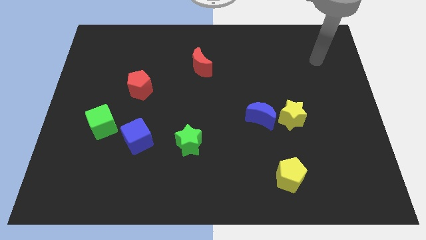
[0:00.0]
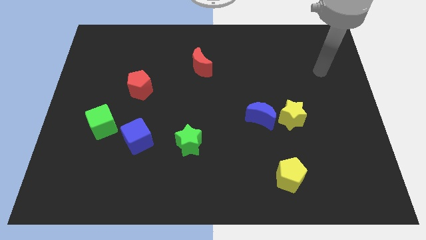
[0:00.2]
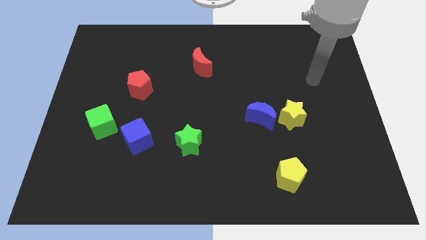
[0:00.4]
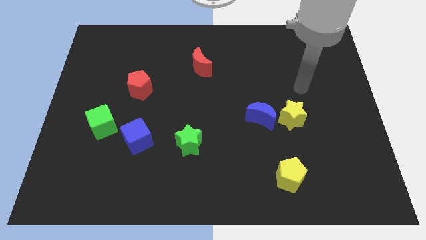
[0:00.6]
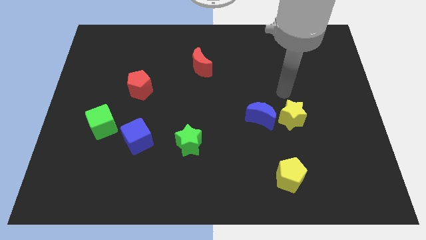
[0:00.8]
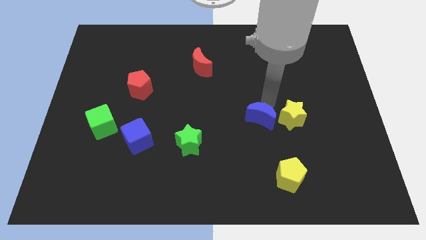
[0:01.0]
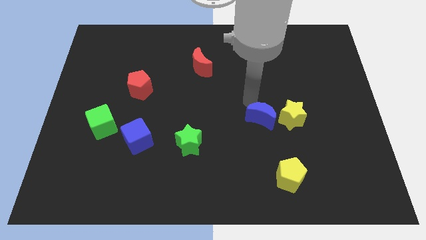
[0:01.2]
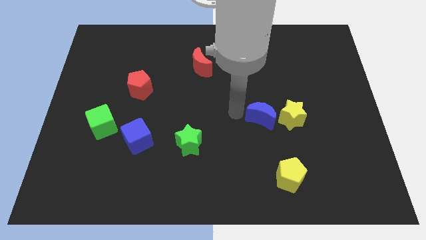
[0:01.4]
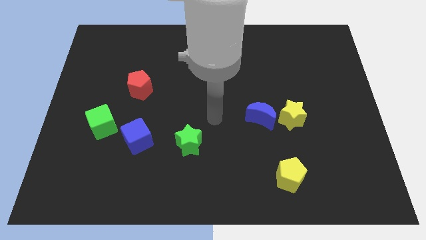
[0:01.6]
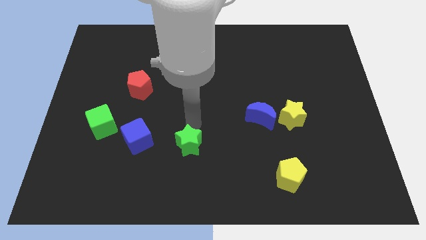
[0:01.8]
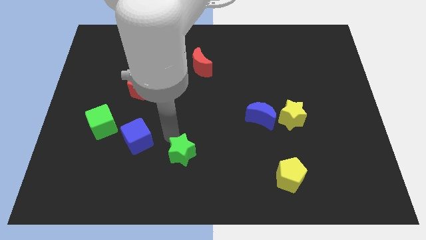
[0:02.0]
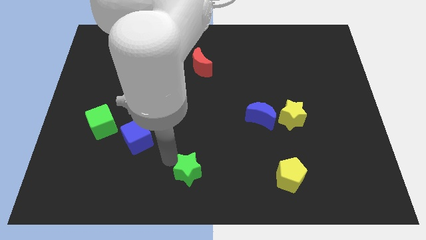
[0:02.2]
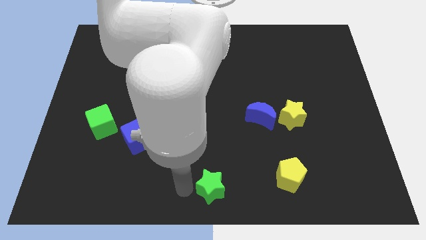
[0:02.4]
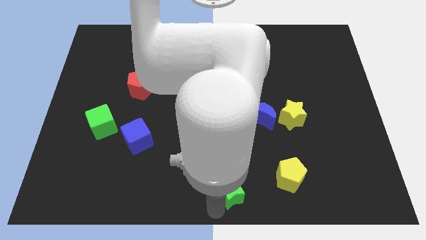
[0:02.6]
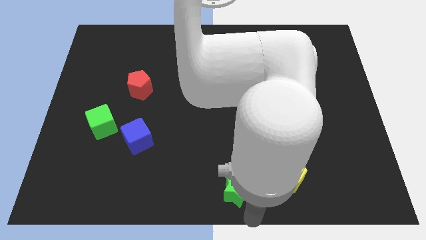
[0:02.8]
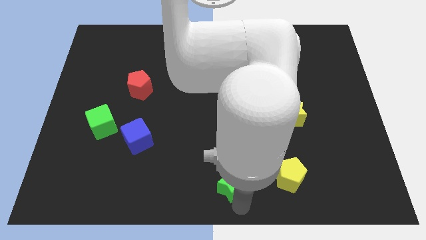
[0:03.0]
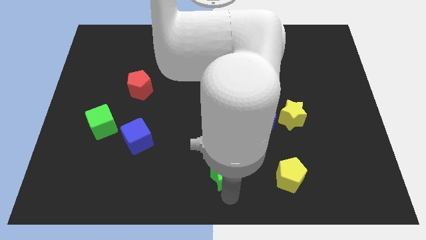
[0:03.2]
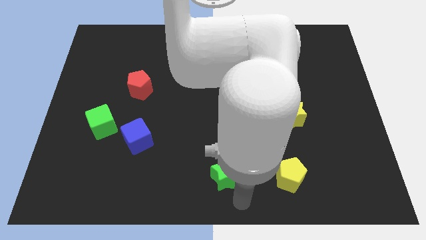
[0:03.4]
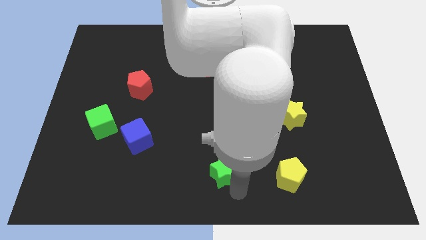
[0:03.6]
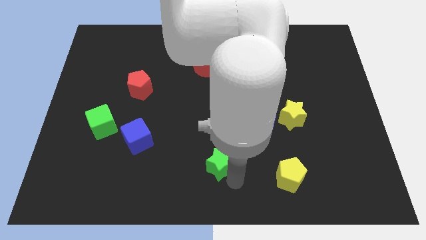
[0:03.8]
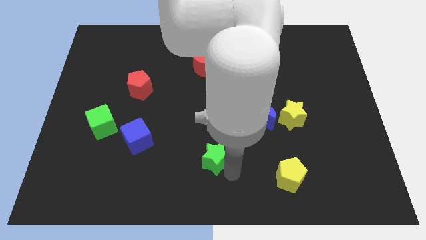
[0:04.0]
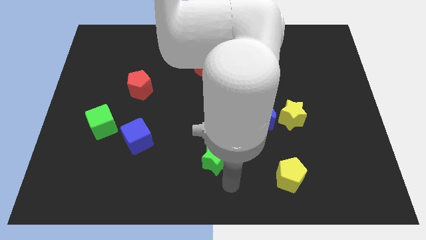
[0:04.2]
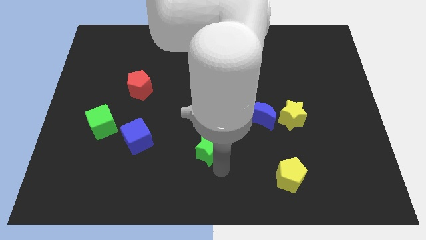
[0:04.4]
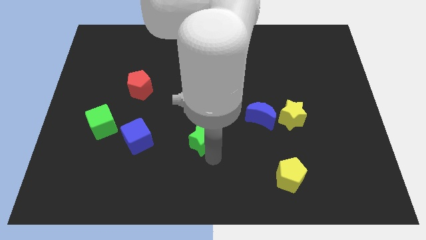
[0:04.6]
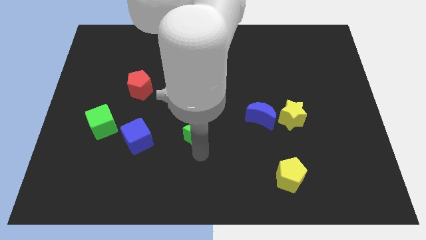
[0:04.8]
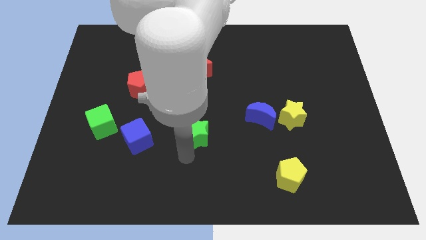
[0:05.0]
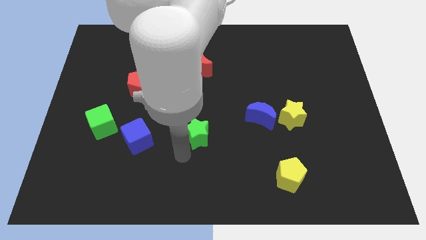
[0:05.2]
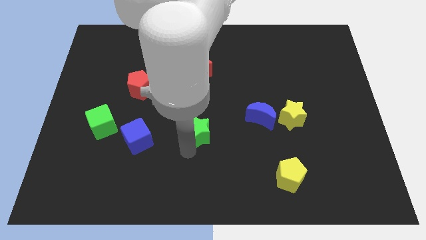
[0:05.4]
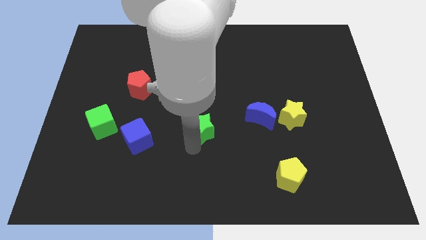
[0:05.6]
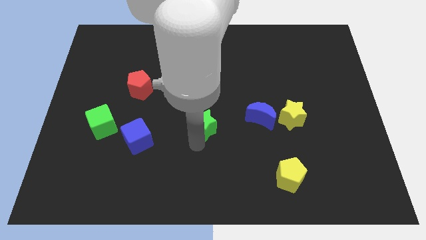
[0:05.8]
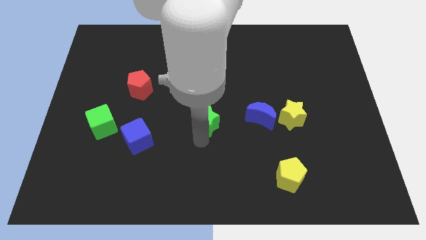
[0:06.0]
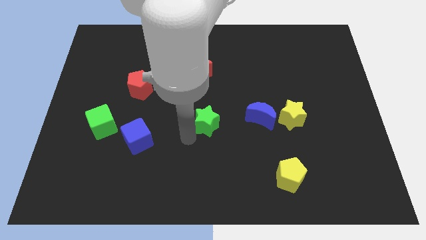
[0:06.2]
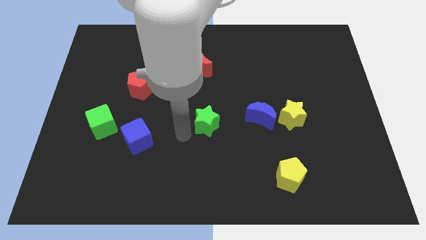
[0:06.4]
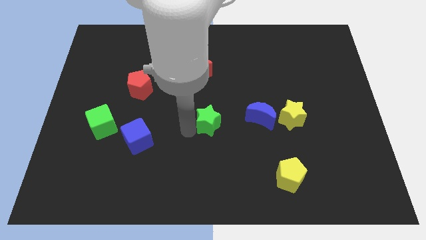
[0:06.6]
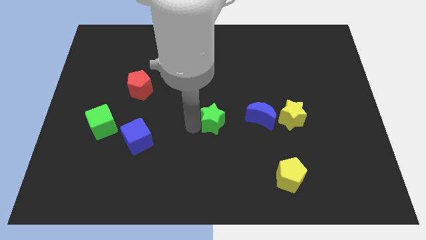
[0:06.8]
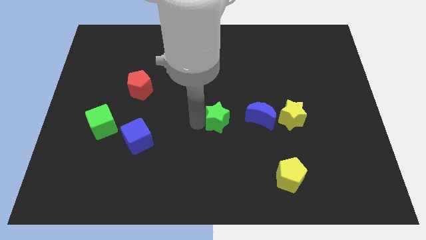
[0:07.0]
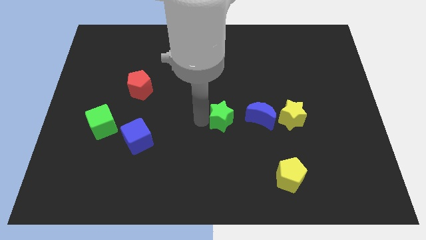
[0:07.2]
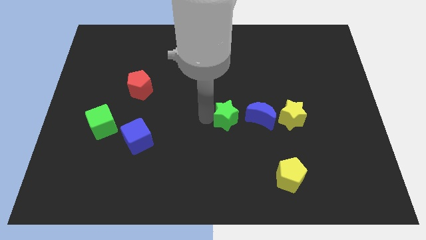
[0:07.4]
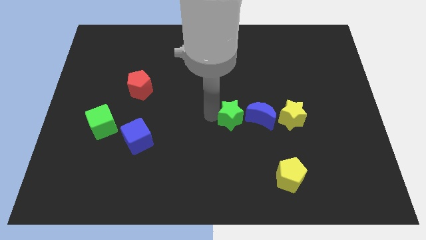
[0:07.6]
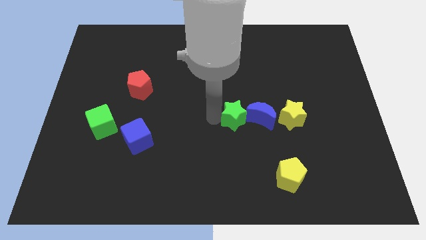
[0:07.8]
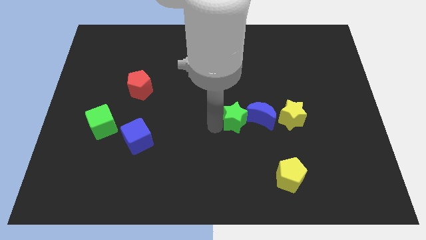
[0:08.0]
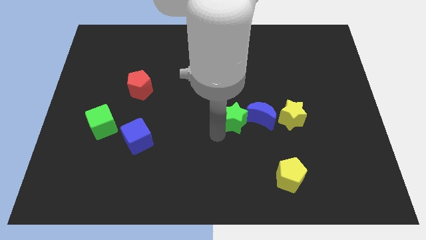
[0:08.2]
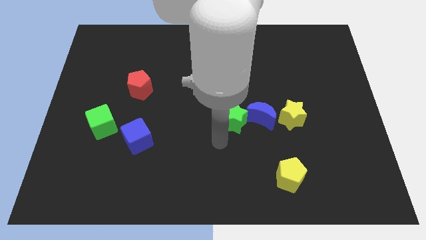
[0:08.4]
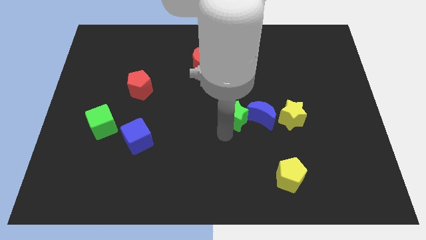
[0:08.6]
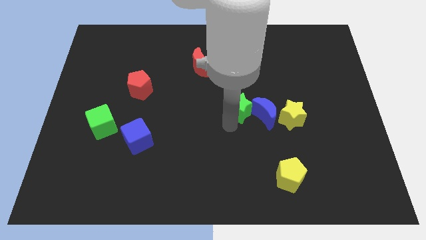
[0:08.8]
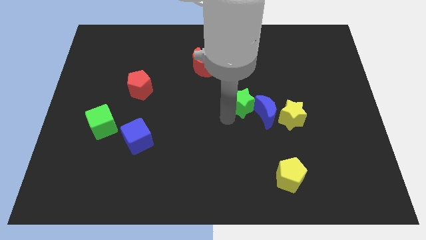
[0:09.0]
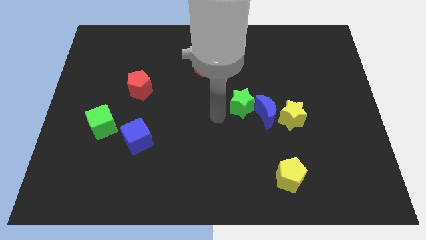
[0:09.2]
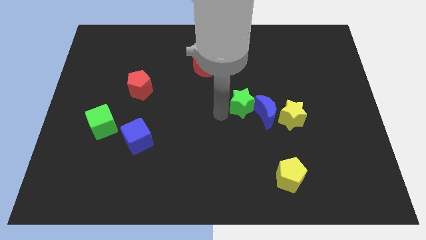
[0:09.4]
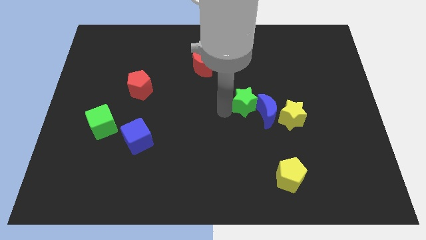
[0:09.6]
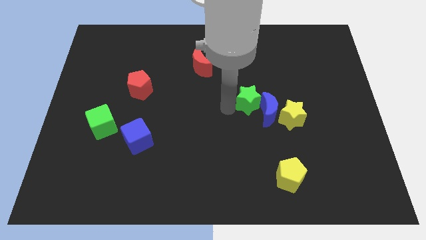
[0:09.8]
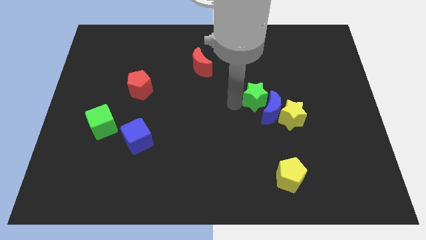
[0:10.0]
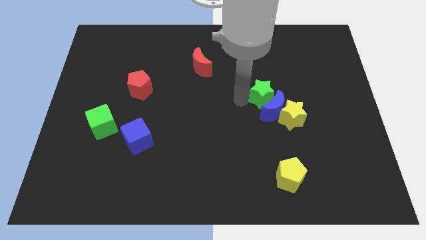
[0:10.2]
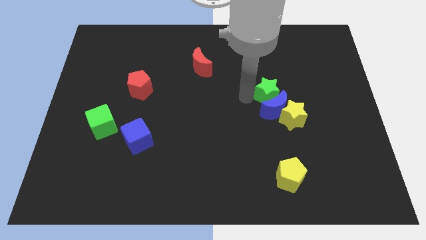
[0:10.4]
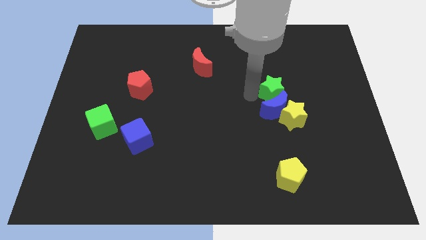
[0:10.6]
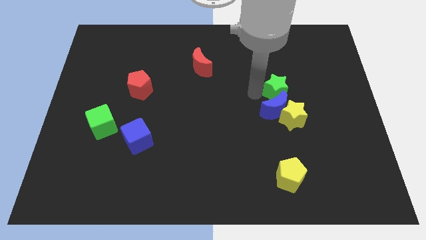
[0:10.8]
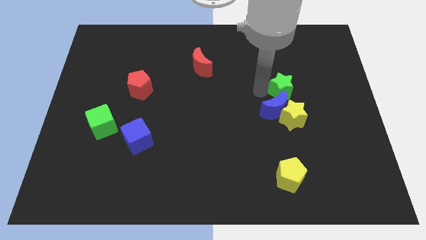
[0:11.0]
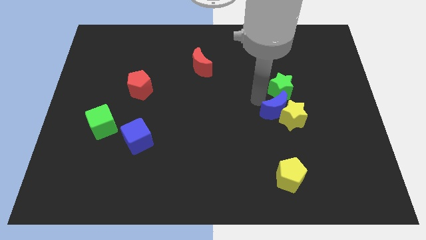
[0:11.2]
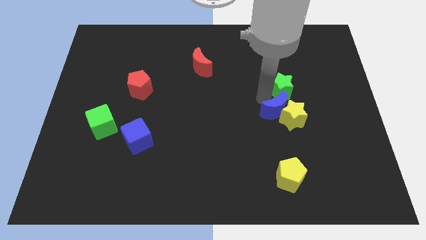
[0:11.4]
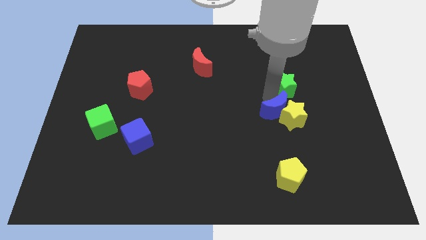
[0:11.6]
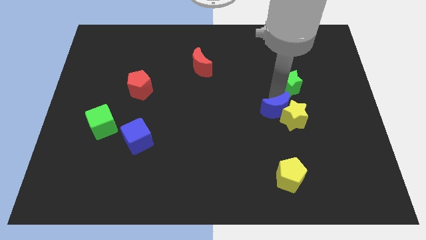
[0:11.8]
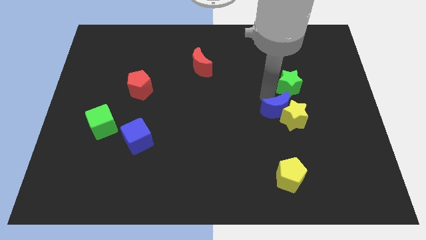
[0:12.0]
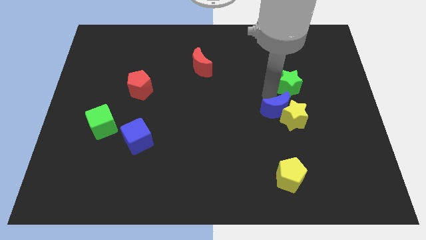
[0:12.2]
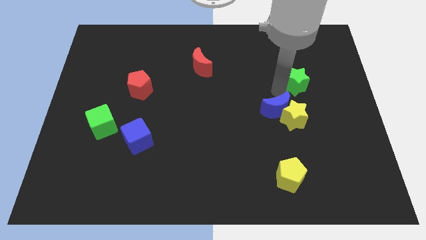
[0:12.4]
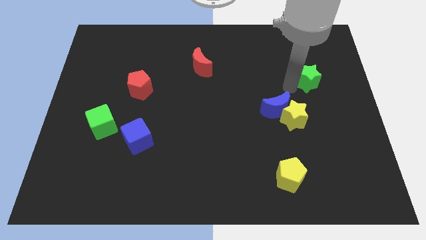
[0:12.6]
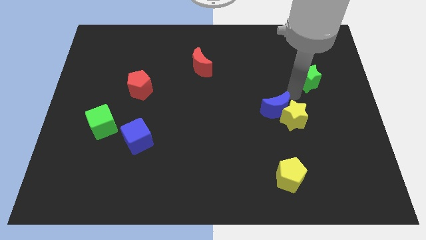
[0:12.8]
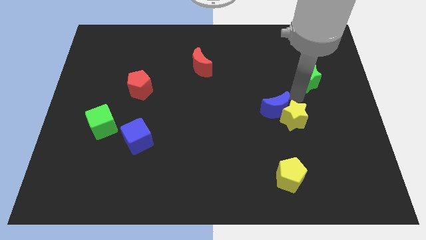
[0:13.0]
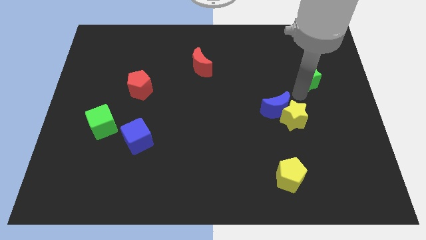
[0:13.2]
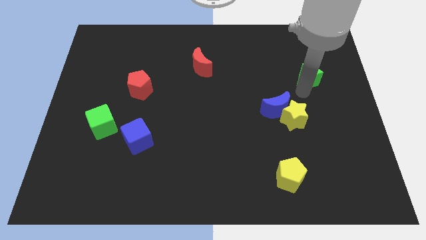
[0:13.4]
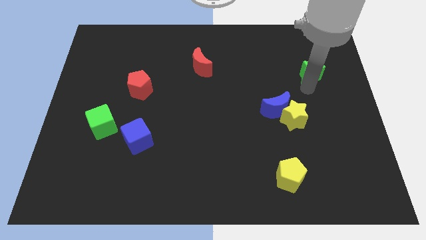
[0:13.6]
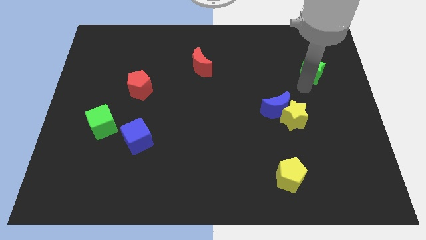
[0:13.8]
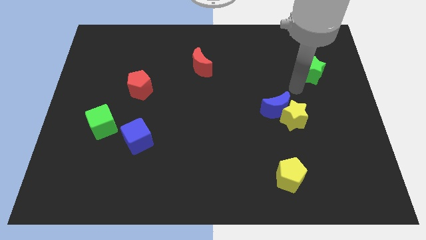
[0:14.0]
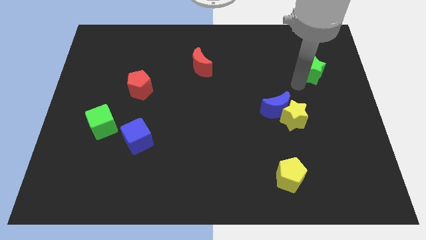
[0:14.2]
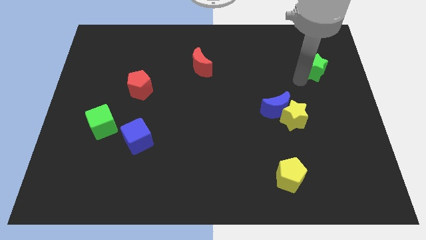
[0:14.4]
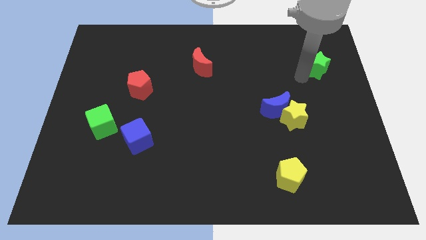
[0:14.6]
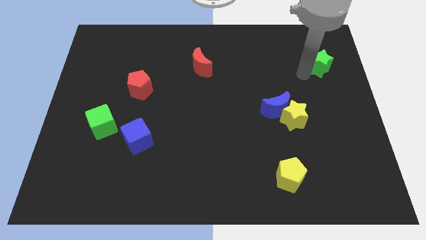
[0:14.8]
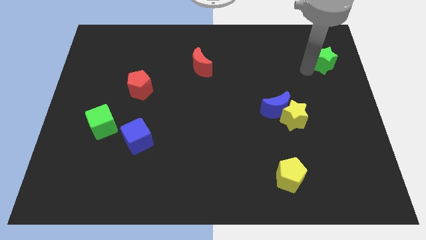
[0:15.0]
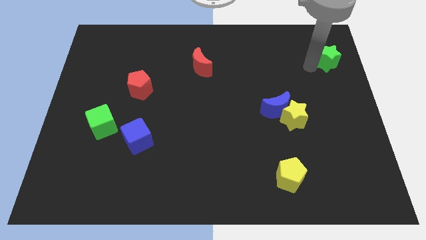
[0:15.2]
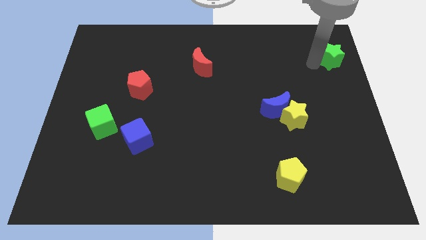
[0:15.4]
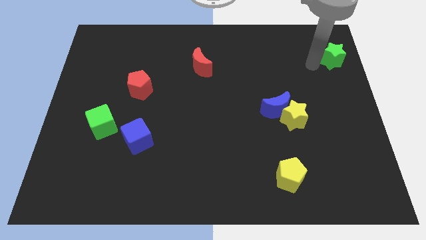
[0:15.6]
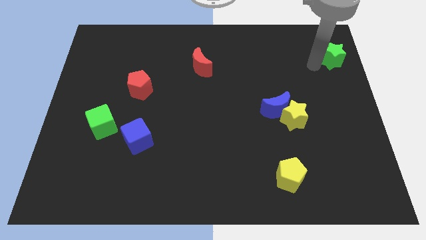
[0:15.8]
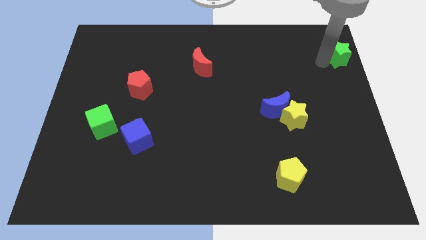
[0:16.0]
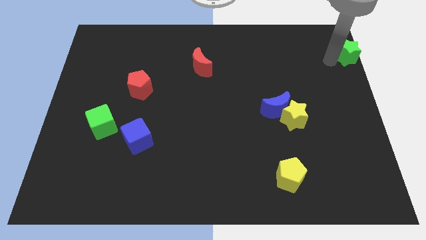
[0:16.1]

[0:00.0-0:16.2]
slide the green star to the top right corner
